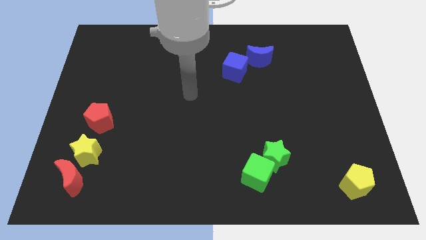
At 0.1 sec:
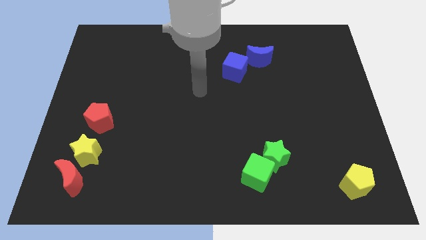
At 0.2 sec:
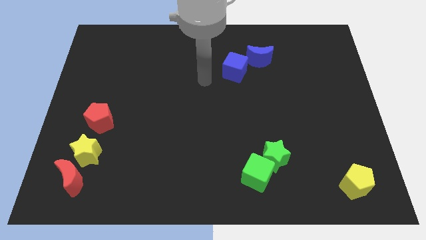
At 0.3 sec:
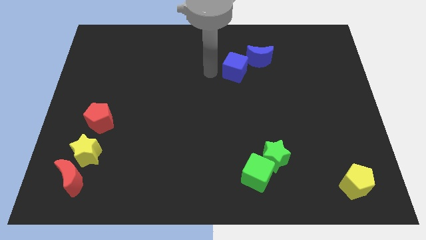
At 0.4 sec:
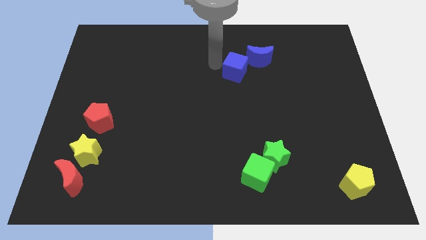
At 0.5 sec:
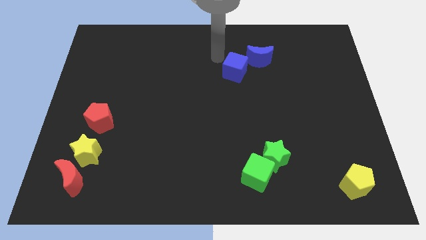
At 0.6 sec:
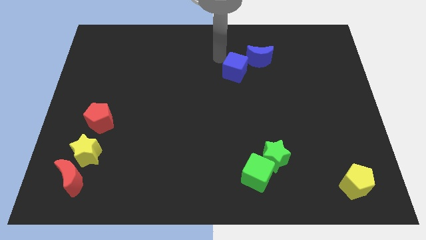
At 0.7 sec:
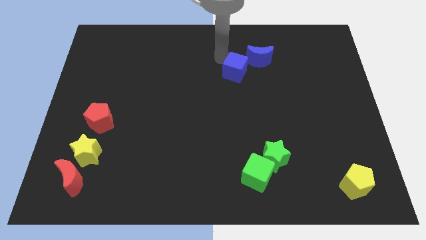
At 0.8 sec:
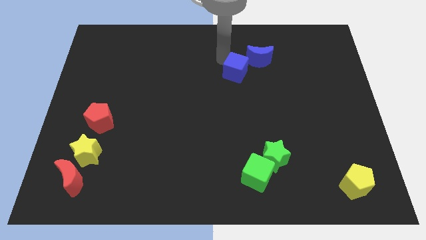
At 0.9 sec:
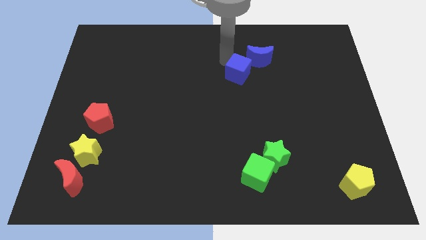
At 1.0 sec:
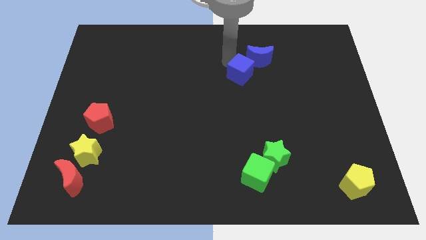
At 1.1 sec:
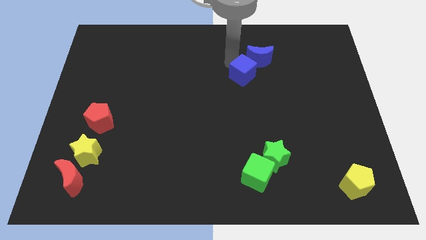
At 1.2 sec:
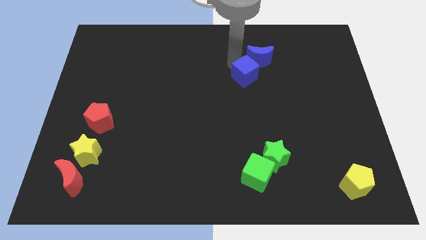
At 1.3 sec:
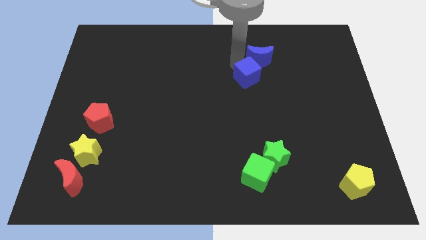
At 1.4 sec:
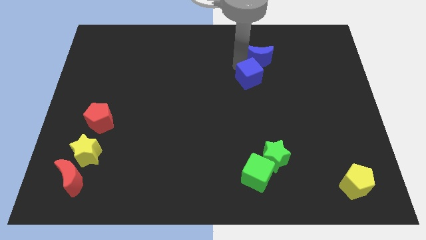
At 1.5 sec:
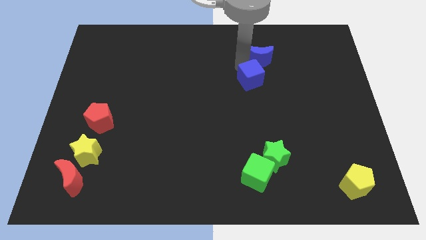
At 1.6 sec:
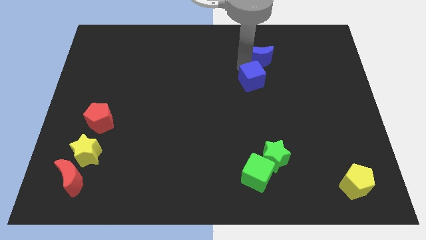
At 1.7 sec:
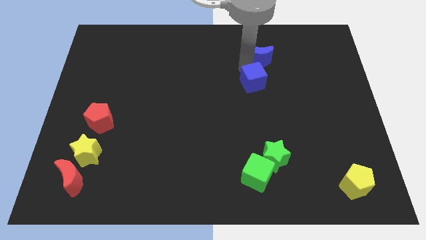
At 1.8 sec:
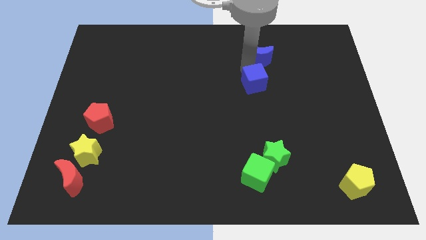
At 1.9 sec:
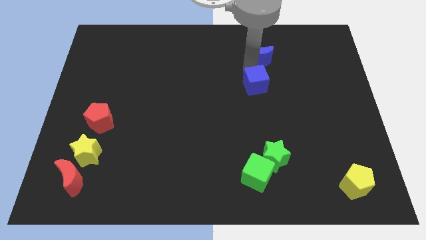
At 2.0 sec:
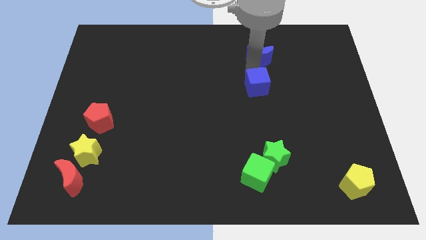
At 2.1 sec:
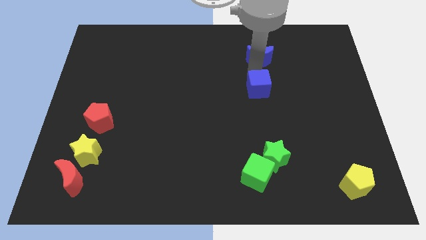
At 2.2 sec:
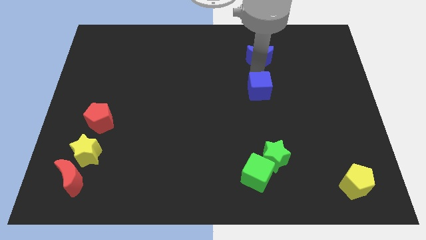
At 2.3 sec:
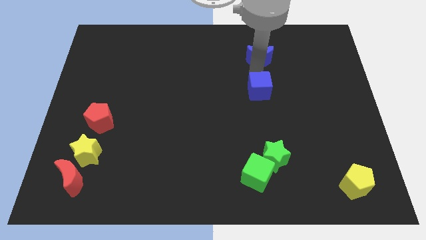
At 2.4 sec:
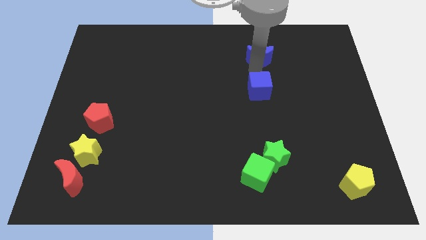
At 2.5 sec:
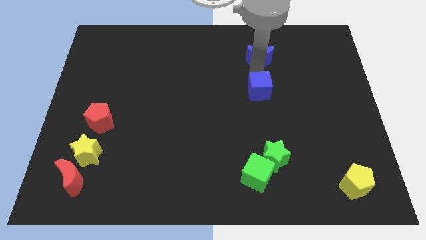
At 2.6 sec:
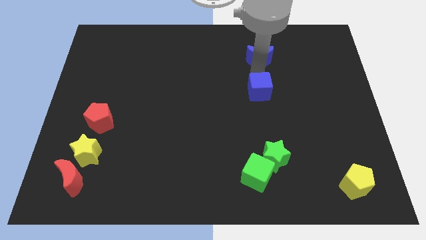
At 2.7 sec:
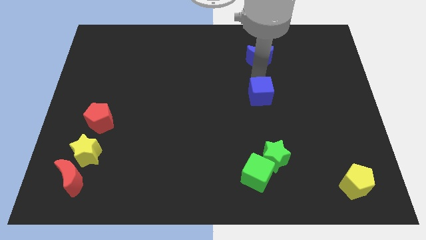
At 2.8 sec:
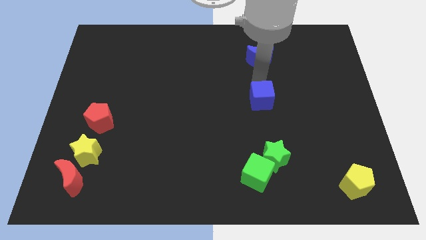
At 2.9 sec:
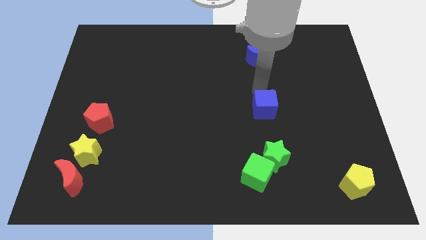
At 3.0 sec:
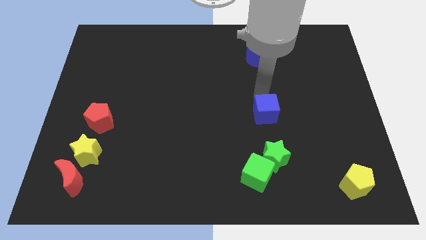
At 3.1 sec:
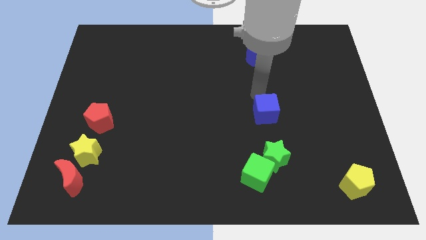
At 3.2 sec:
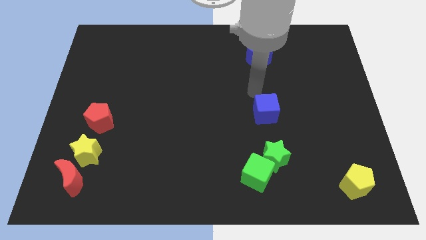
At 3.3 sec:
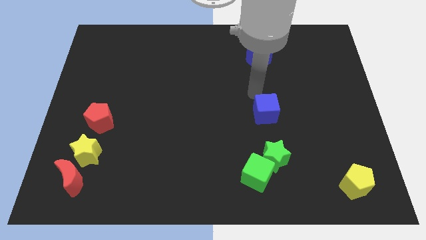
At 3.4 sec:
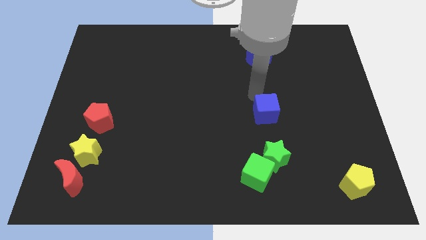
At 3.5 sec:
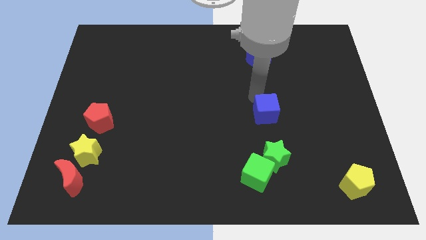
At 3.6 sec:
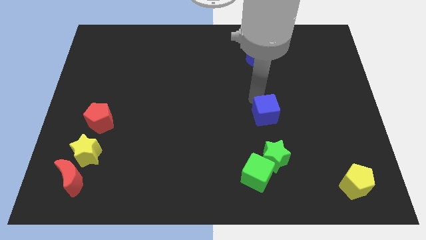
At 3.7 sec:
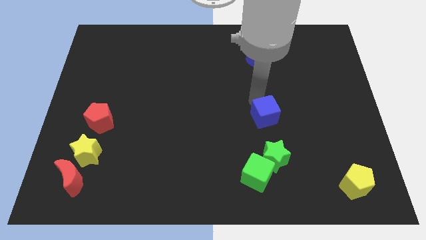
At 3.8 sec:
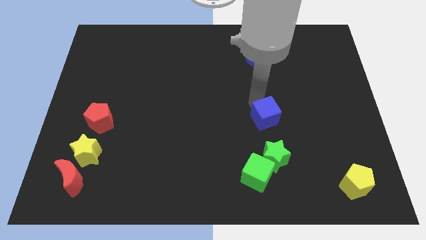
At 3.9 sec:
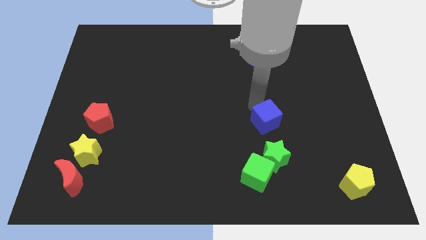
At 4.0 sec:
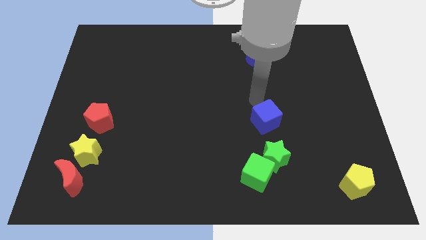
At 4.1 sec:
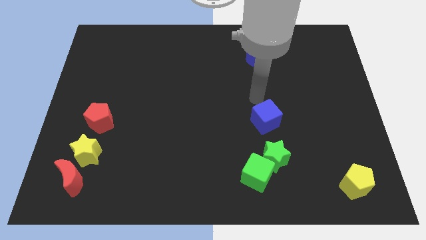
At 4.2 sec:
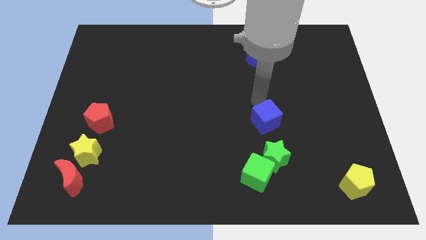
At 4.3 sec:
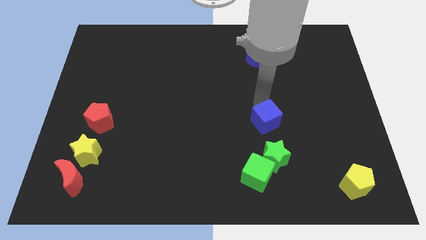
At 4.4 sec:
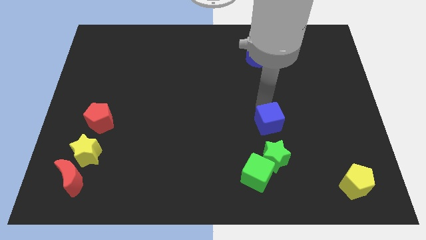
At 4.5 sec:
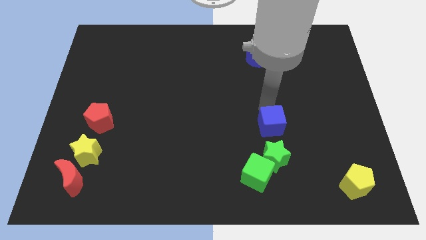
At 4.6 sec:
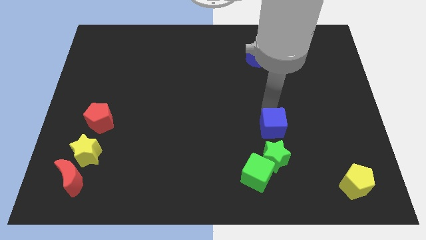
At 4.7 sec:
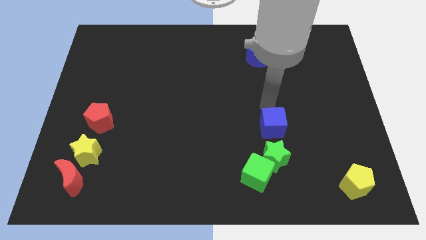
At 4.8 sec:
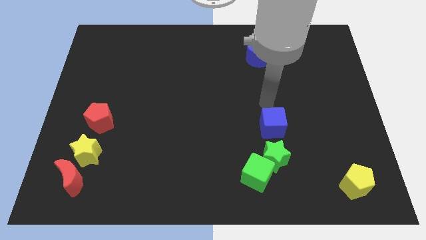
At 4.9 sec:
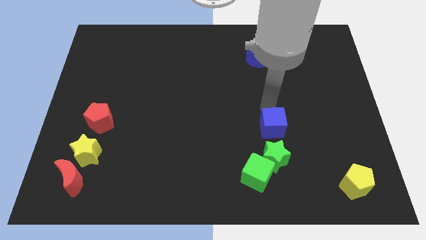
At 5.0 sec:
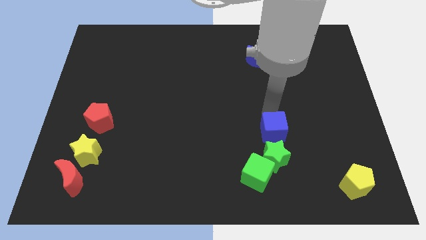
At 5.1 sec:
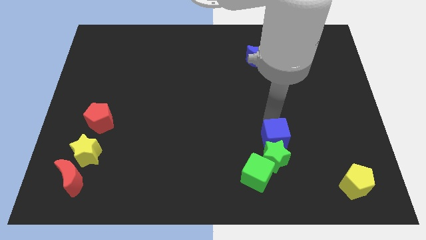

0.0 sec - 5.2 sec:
slide the blue cube to the top right of the green cube

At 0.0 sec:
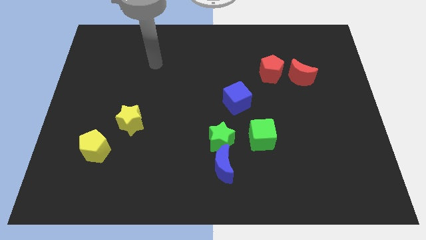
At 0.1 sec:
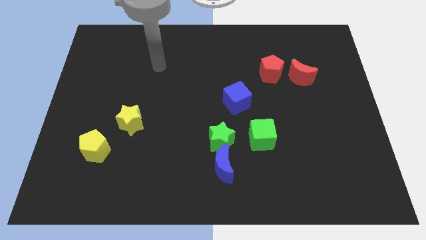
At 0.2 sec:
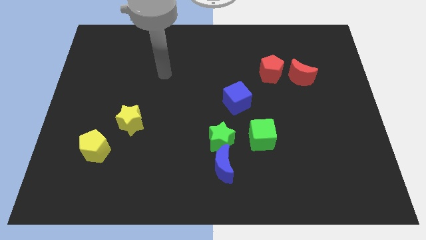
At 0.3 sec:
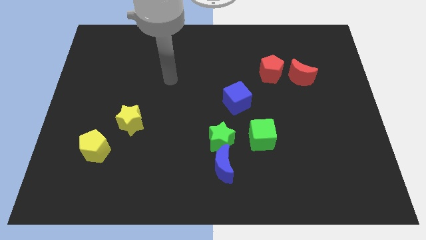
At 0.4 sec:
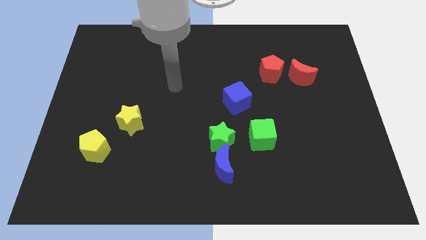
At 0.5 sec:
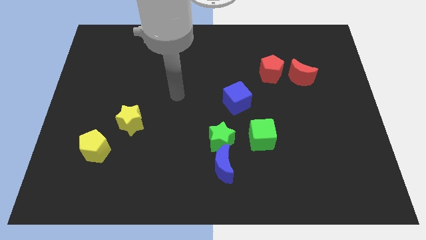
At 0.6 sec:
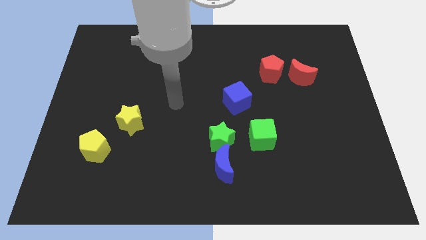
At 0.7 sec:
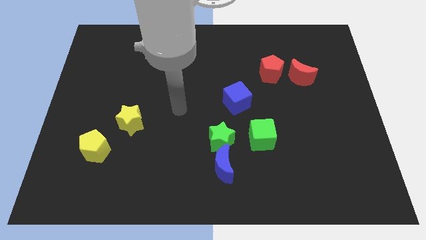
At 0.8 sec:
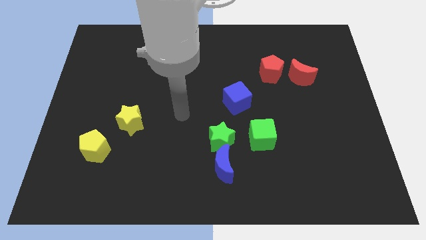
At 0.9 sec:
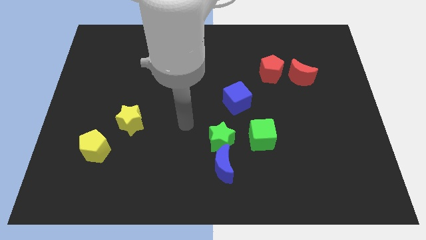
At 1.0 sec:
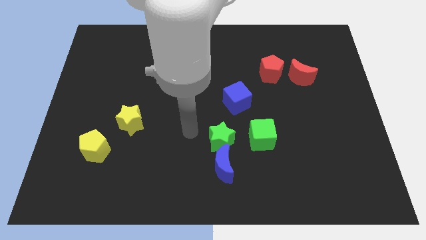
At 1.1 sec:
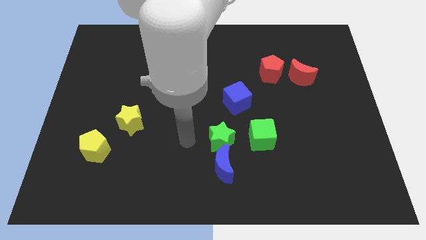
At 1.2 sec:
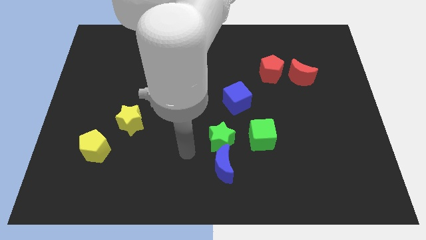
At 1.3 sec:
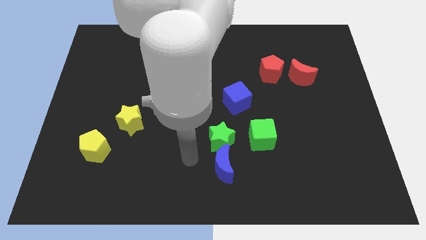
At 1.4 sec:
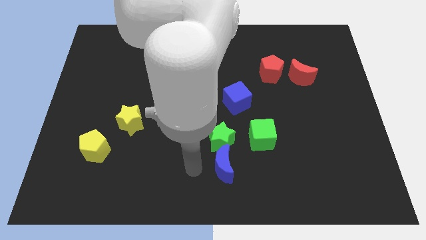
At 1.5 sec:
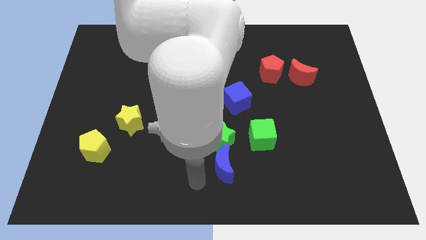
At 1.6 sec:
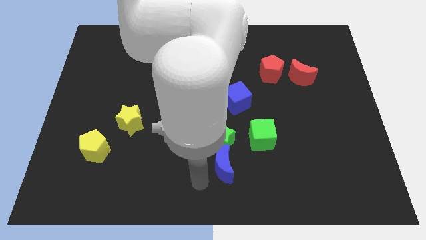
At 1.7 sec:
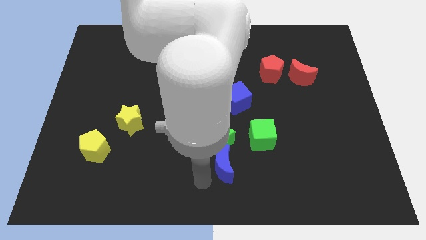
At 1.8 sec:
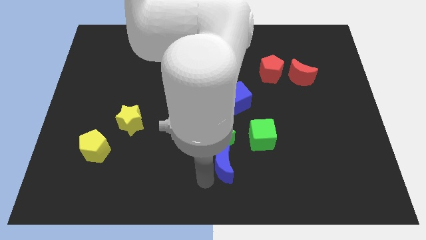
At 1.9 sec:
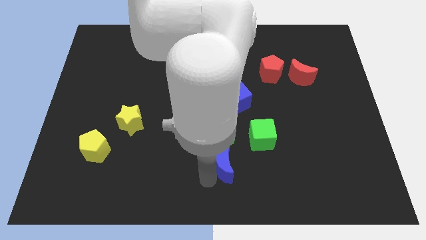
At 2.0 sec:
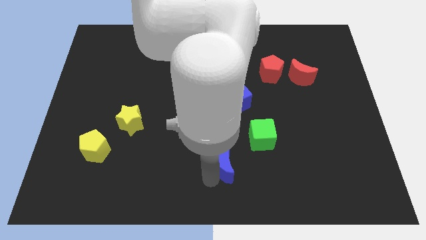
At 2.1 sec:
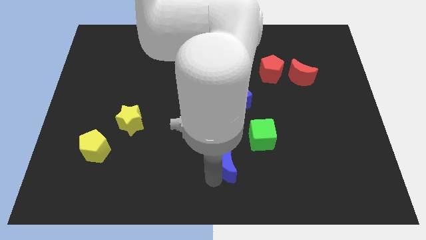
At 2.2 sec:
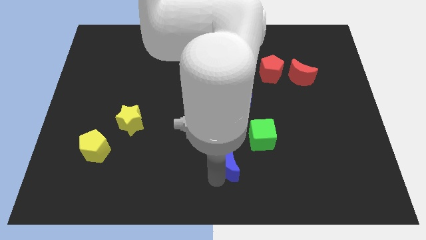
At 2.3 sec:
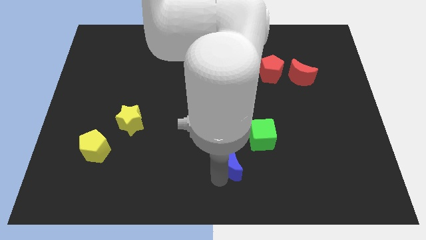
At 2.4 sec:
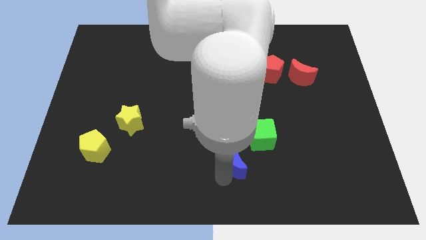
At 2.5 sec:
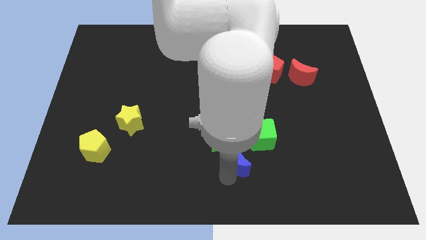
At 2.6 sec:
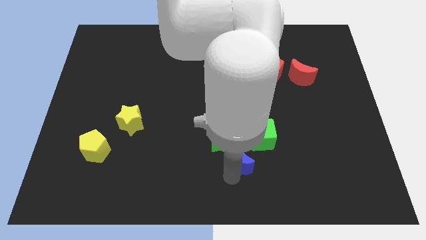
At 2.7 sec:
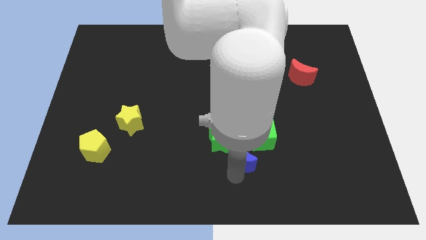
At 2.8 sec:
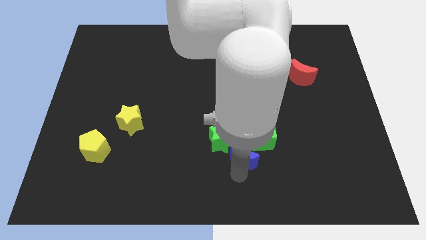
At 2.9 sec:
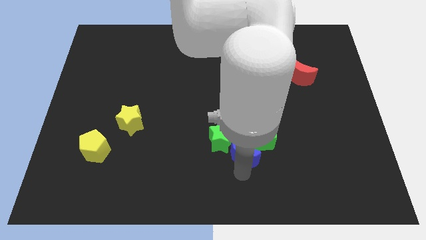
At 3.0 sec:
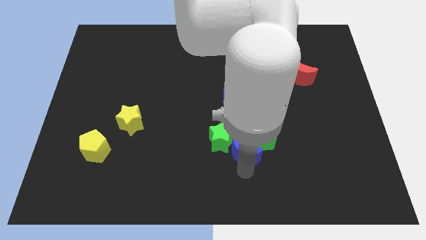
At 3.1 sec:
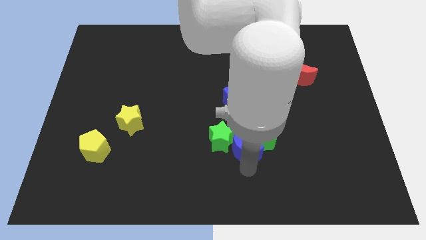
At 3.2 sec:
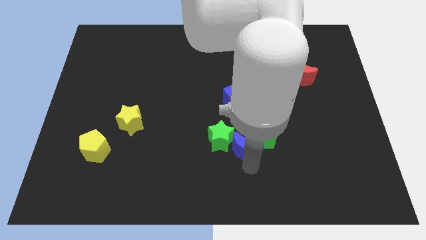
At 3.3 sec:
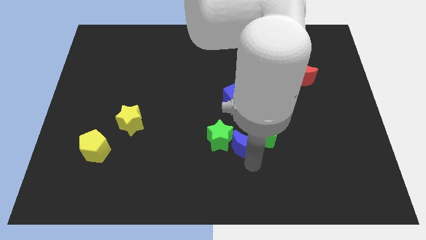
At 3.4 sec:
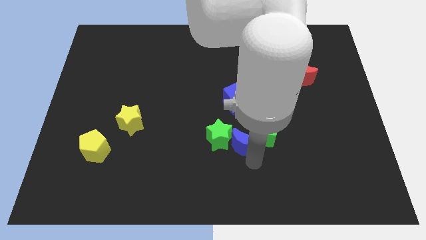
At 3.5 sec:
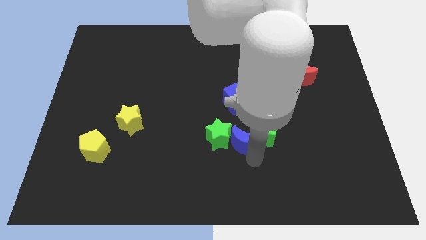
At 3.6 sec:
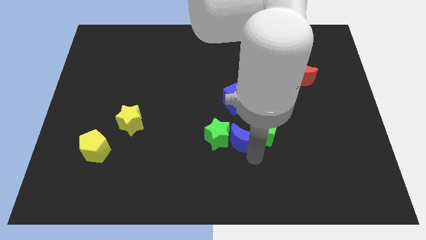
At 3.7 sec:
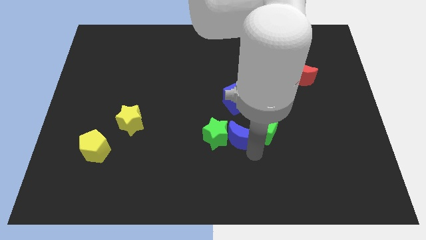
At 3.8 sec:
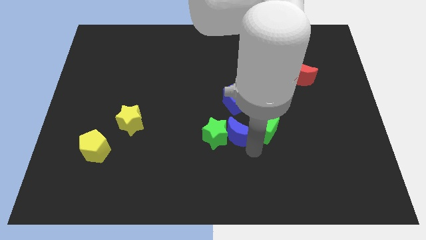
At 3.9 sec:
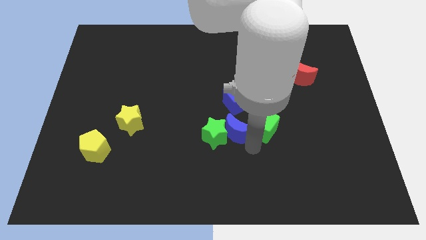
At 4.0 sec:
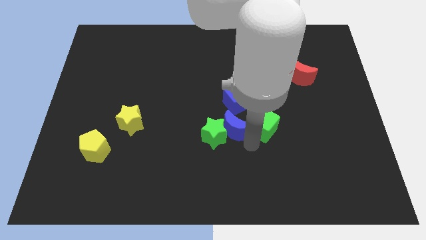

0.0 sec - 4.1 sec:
move the blue moon to the top left of the green cube
